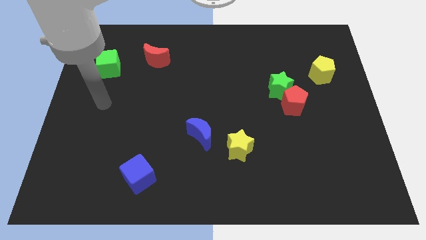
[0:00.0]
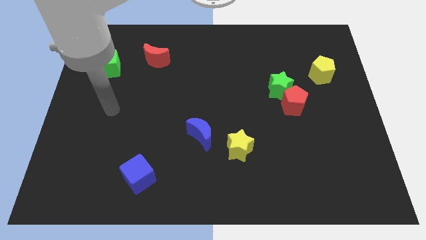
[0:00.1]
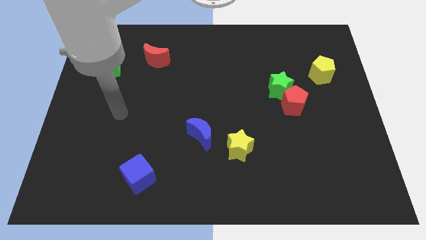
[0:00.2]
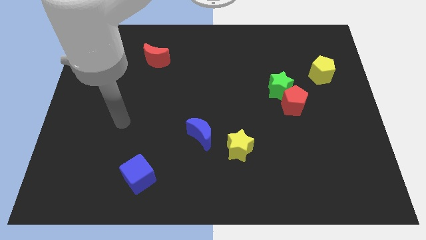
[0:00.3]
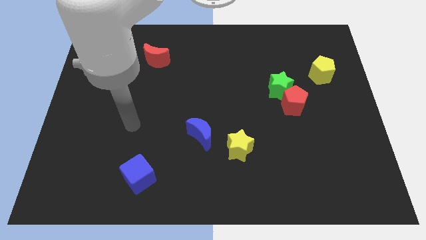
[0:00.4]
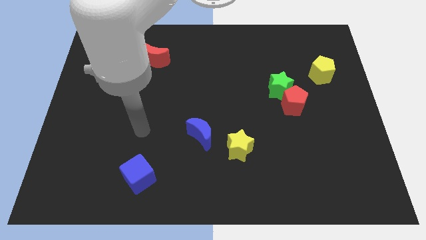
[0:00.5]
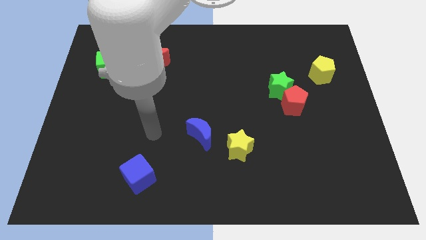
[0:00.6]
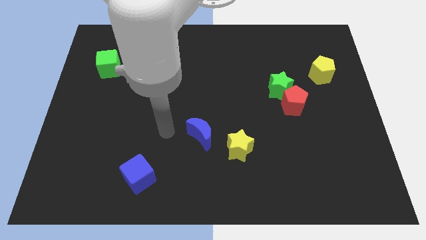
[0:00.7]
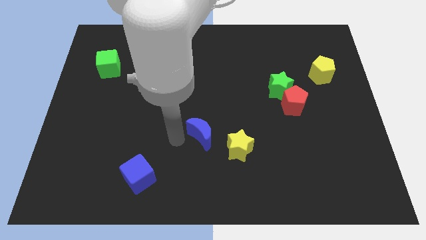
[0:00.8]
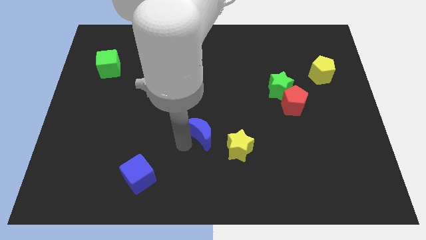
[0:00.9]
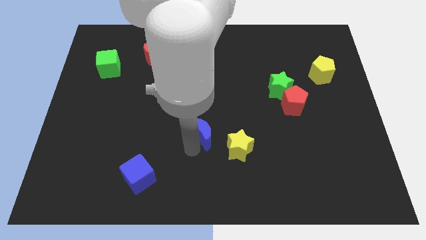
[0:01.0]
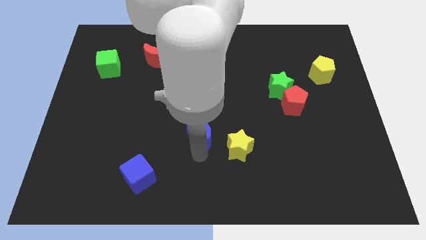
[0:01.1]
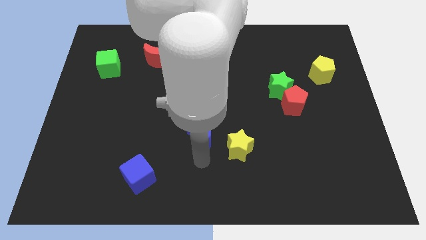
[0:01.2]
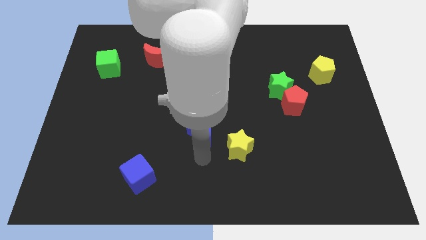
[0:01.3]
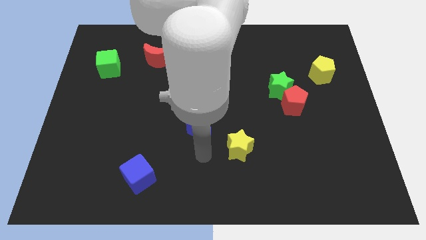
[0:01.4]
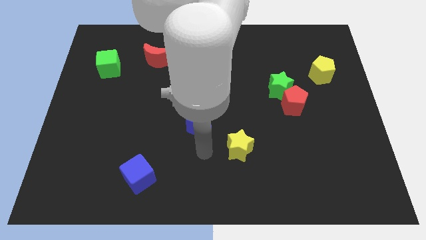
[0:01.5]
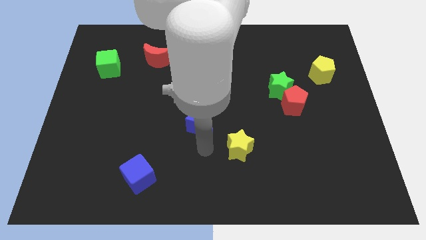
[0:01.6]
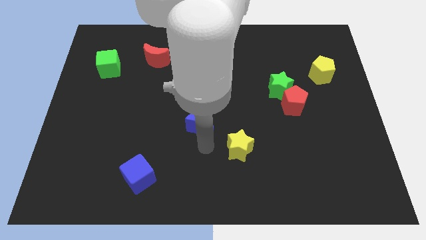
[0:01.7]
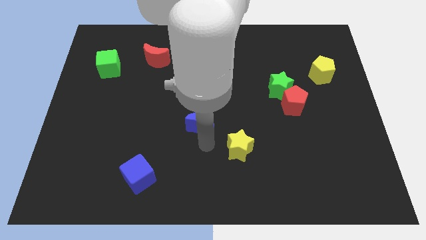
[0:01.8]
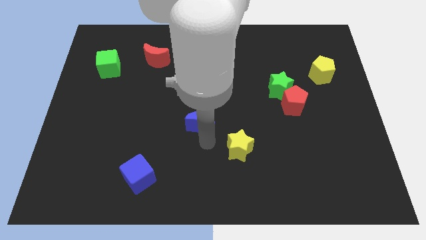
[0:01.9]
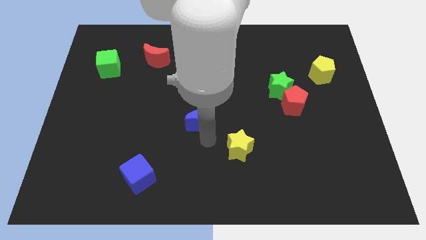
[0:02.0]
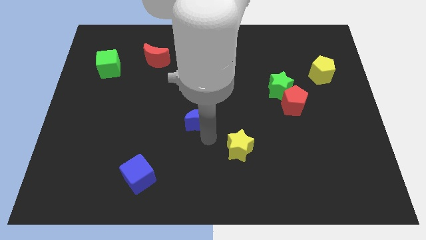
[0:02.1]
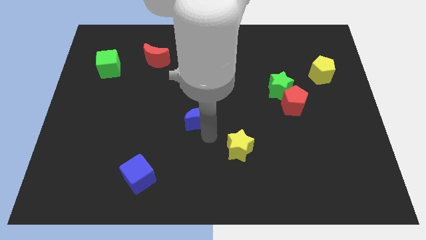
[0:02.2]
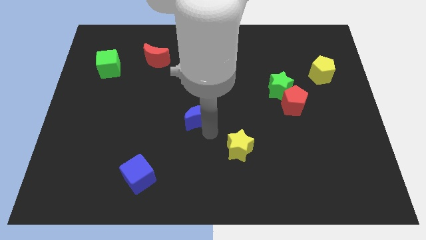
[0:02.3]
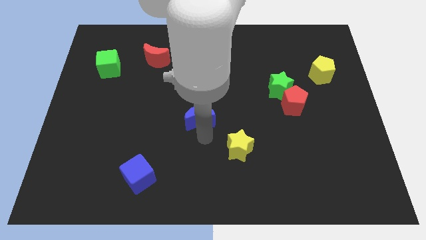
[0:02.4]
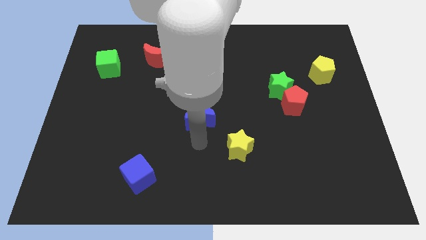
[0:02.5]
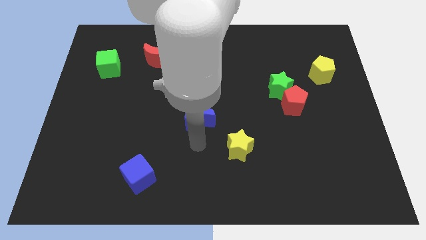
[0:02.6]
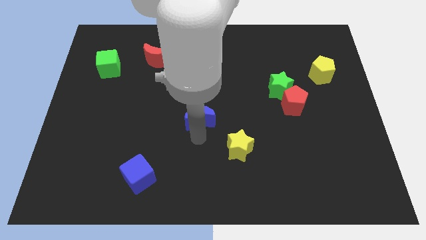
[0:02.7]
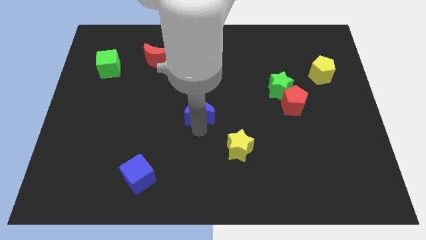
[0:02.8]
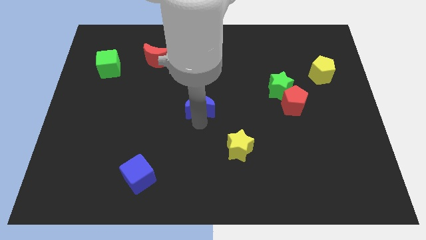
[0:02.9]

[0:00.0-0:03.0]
move the blue moon a little upwards

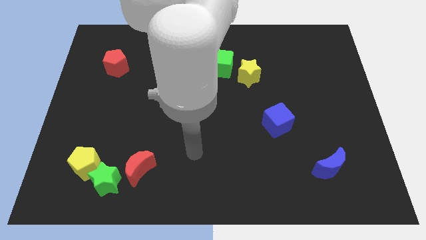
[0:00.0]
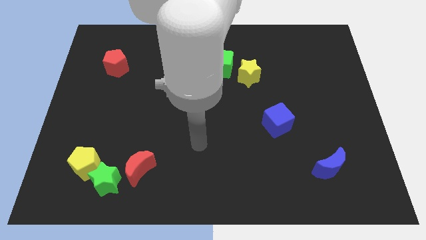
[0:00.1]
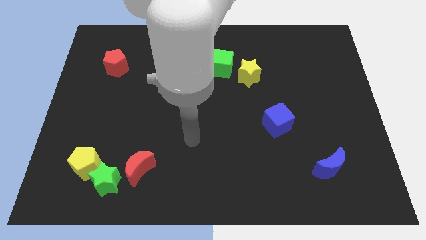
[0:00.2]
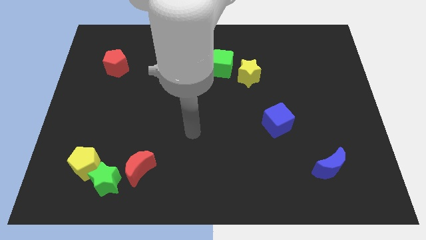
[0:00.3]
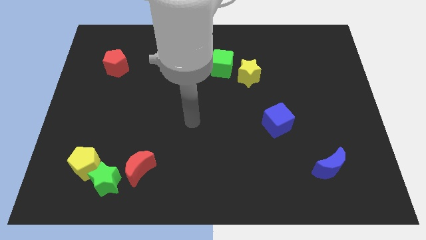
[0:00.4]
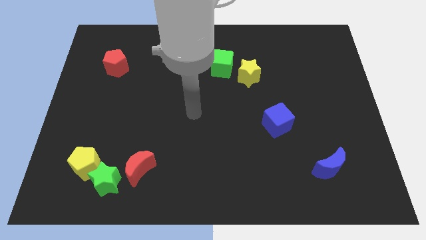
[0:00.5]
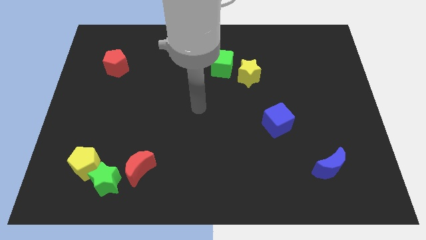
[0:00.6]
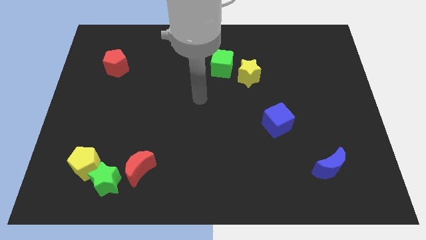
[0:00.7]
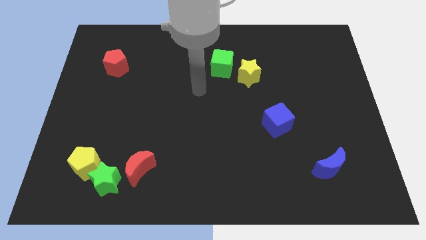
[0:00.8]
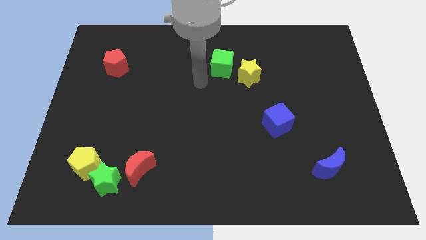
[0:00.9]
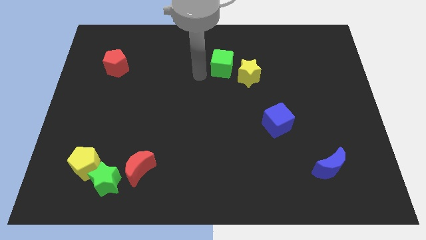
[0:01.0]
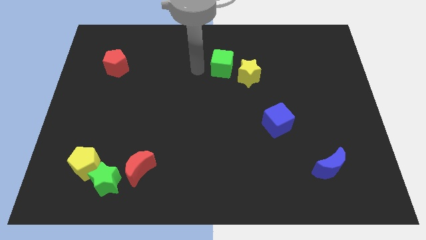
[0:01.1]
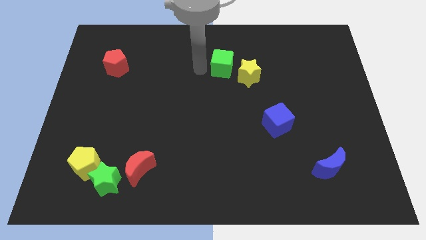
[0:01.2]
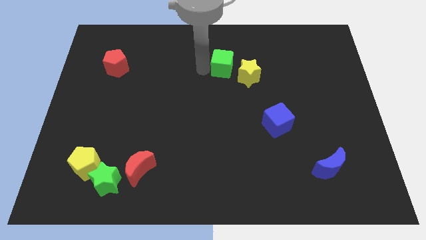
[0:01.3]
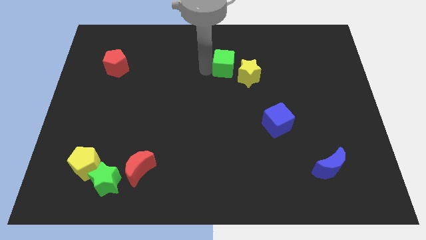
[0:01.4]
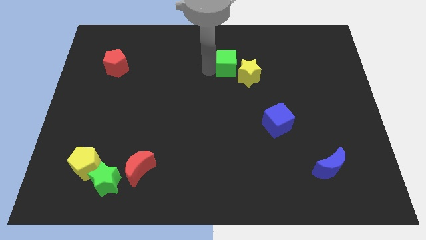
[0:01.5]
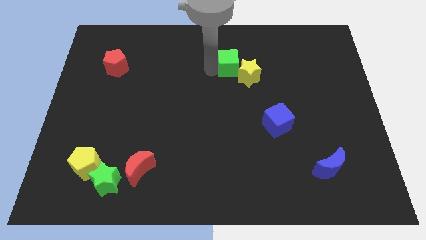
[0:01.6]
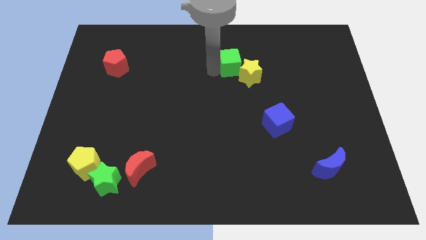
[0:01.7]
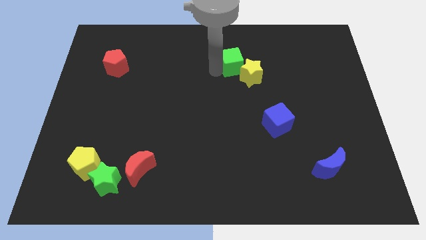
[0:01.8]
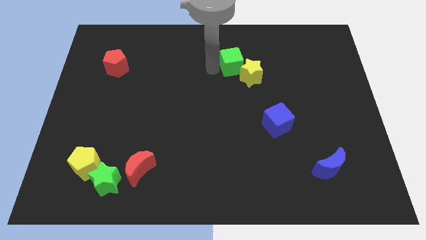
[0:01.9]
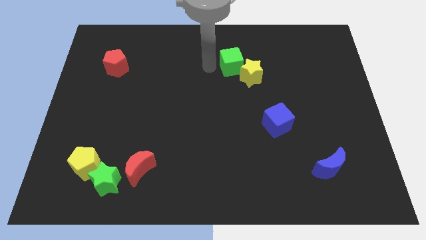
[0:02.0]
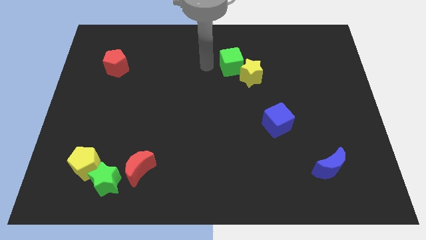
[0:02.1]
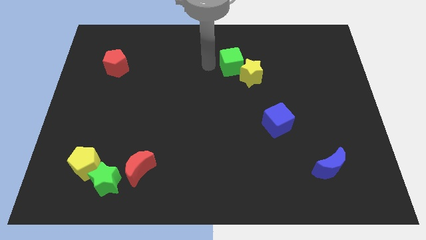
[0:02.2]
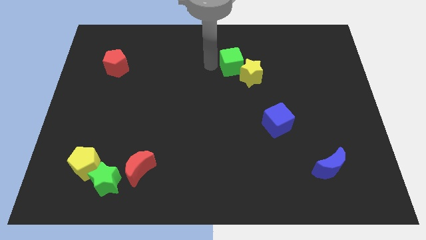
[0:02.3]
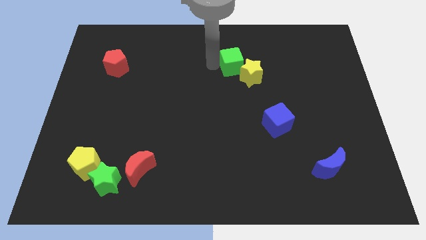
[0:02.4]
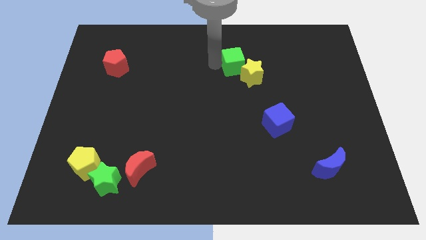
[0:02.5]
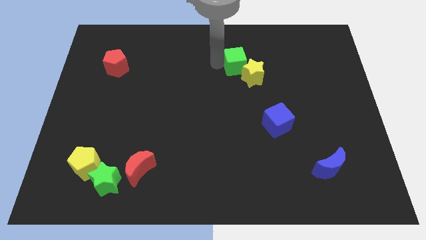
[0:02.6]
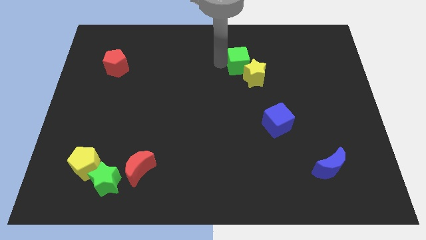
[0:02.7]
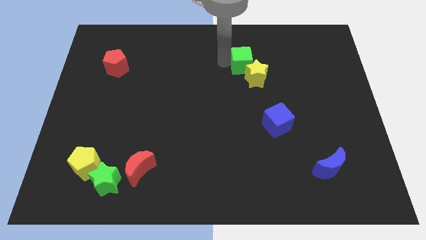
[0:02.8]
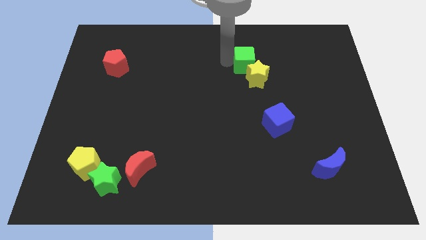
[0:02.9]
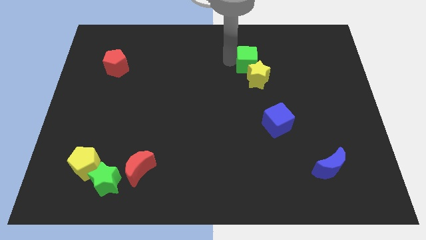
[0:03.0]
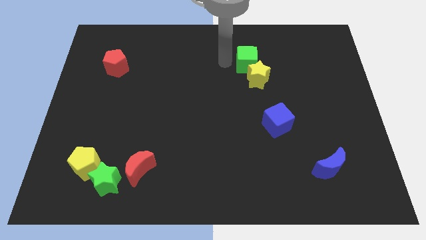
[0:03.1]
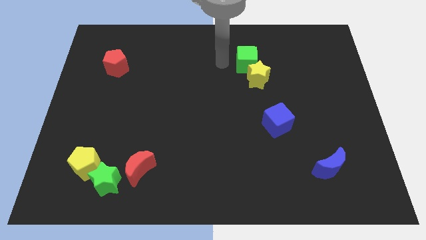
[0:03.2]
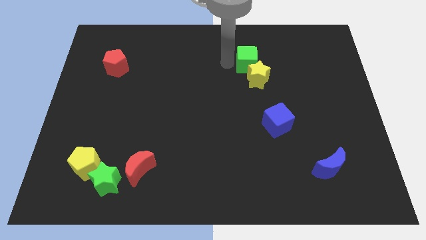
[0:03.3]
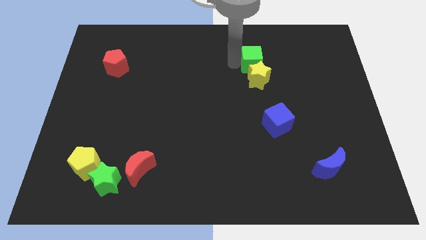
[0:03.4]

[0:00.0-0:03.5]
slide the green cube a little bit to the right

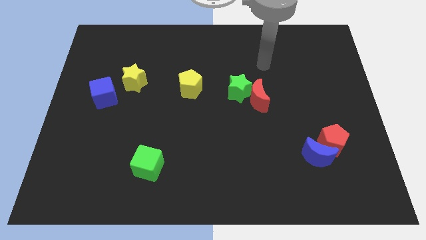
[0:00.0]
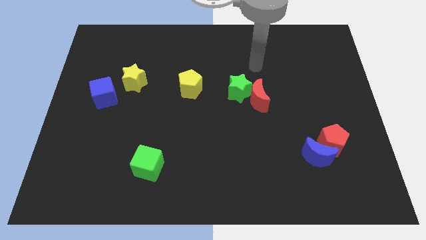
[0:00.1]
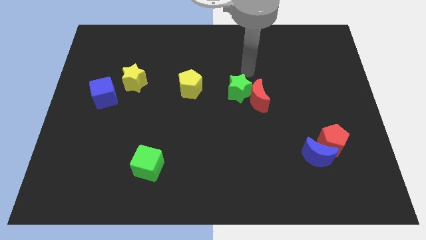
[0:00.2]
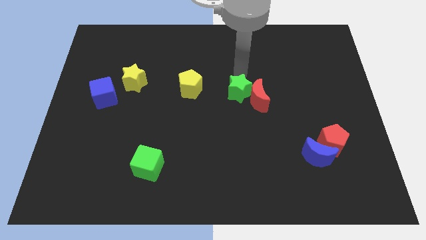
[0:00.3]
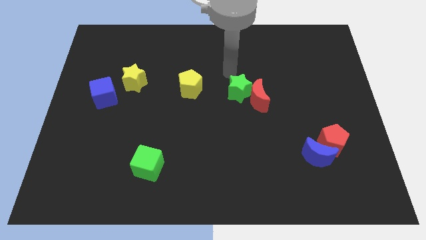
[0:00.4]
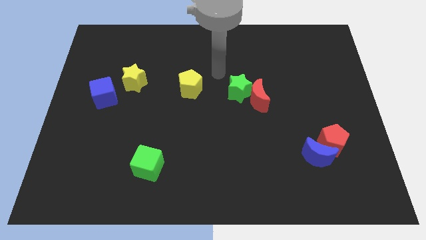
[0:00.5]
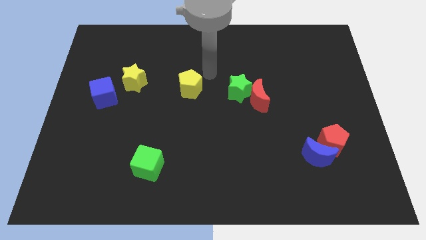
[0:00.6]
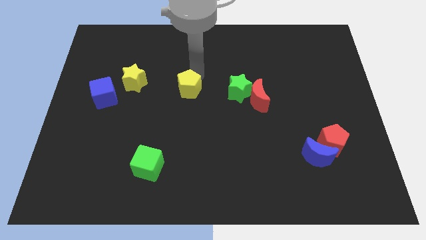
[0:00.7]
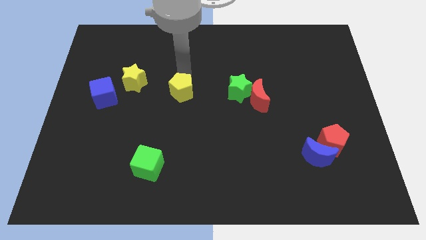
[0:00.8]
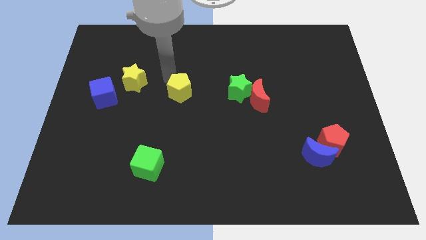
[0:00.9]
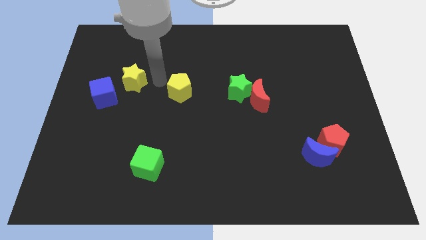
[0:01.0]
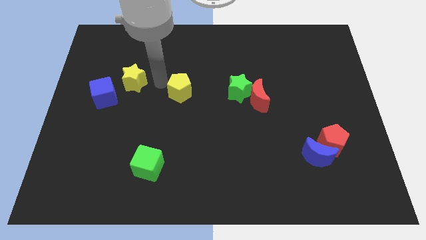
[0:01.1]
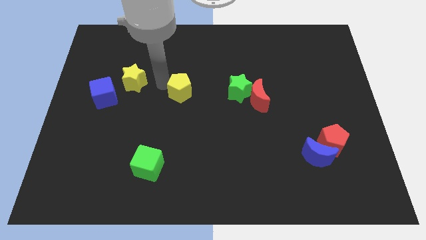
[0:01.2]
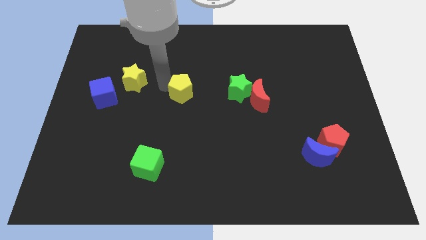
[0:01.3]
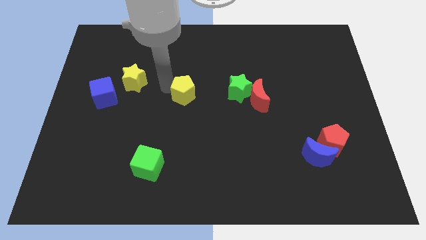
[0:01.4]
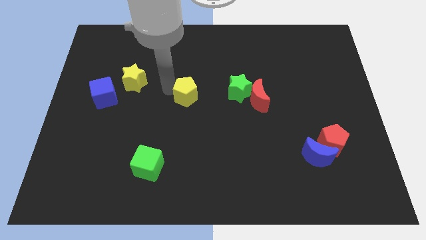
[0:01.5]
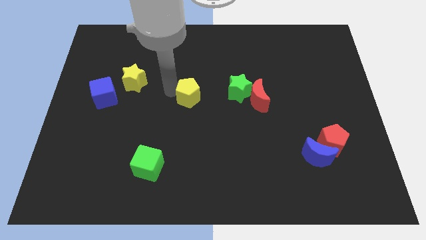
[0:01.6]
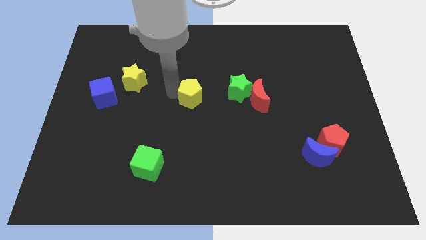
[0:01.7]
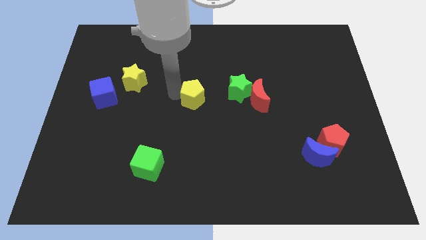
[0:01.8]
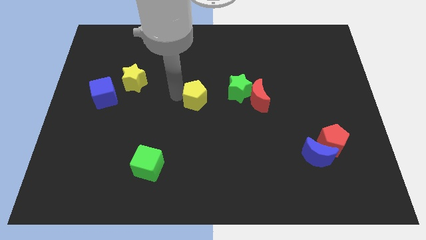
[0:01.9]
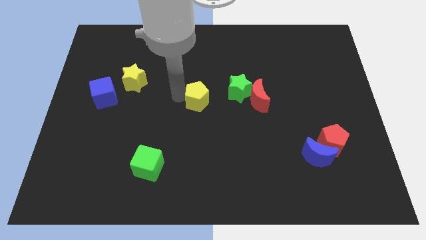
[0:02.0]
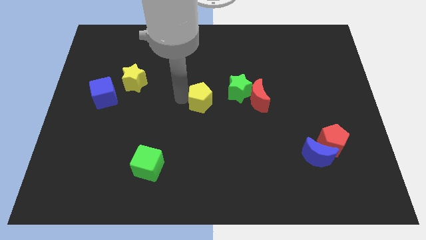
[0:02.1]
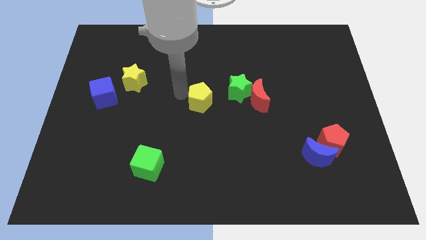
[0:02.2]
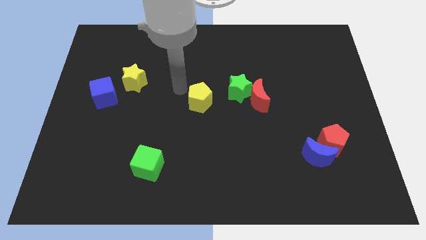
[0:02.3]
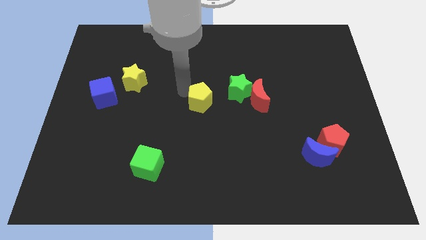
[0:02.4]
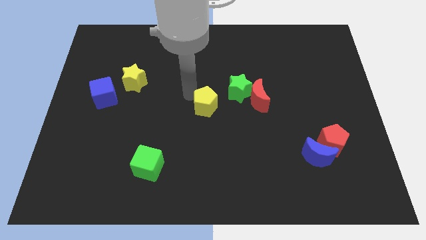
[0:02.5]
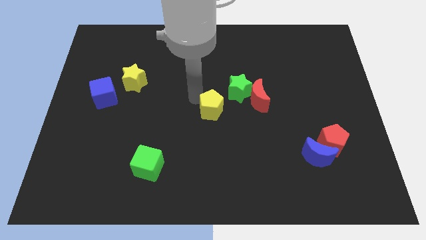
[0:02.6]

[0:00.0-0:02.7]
move the yellow pentagon downwards and then right a bit
